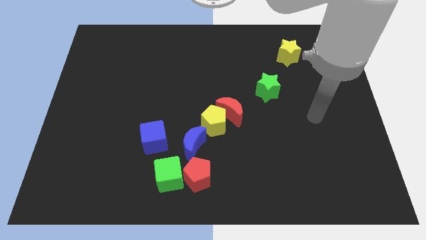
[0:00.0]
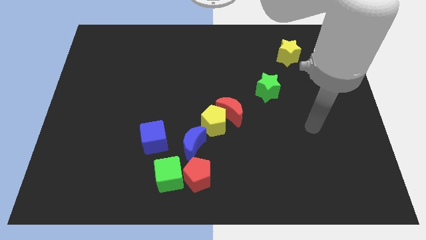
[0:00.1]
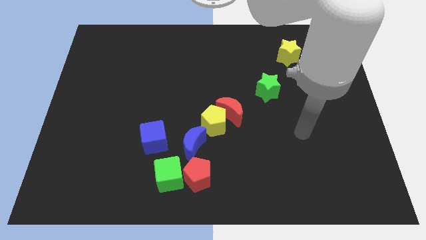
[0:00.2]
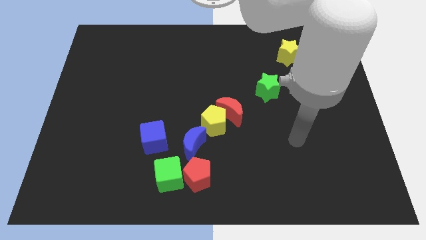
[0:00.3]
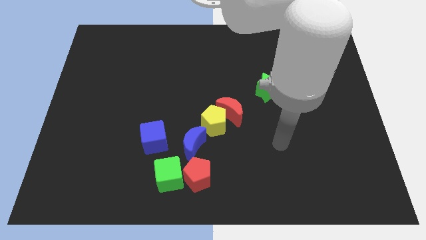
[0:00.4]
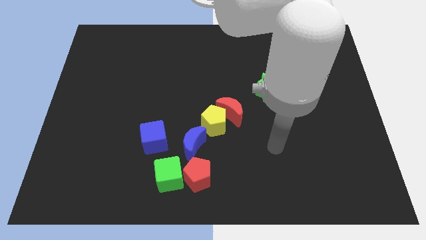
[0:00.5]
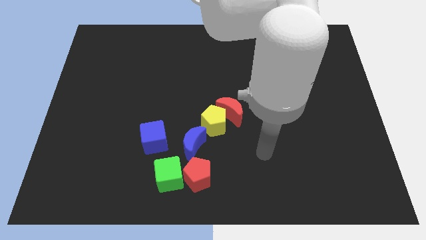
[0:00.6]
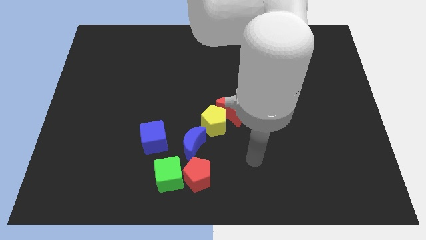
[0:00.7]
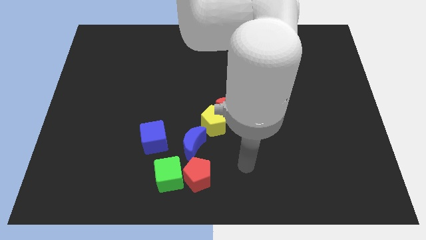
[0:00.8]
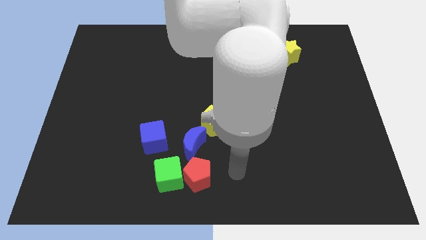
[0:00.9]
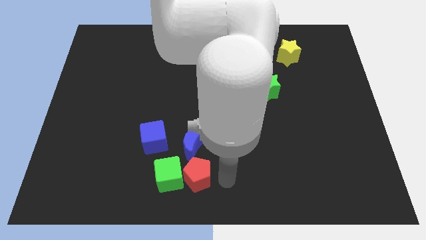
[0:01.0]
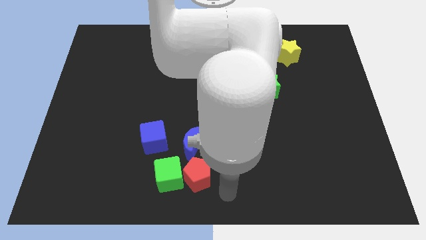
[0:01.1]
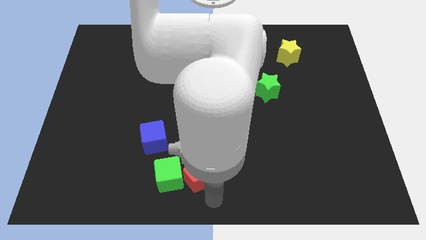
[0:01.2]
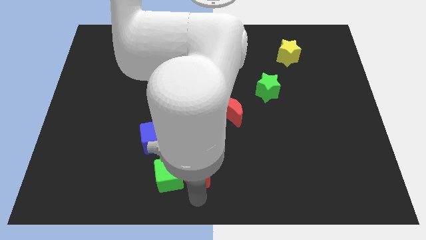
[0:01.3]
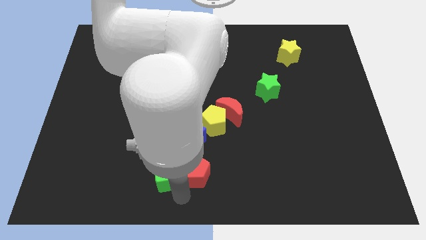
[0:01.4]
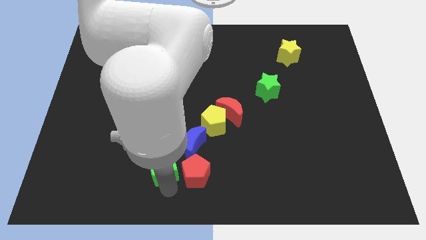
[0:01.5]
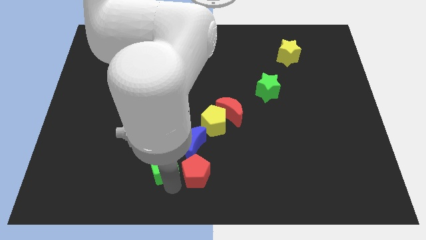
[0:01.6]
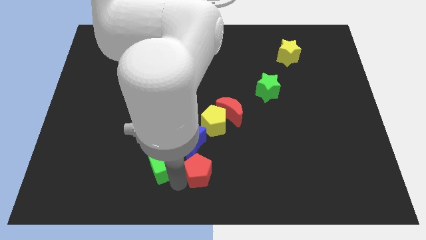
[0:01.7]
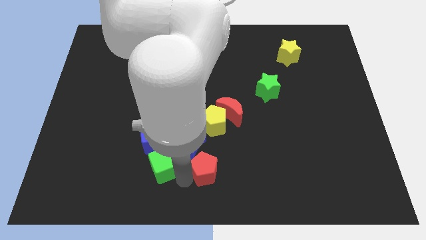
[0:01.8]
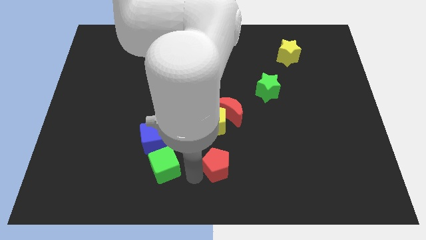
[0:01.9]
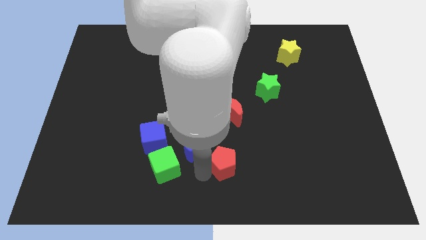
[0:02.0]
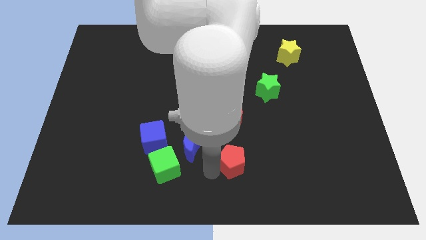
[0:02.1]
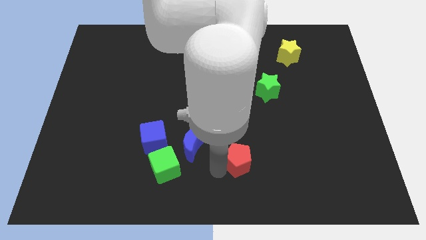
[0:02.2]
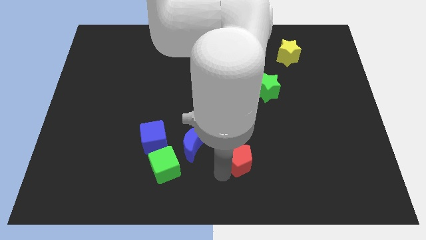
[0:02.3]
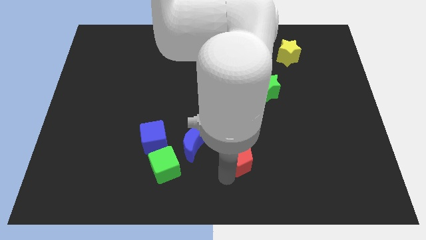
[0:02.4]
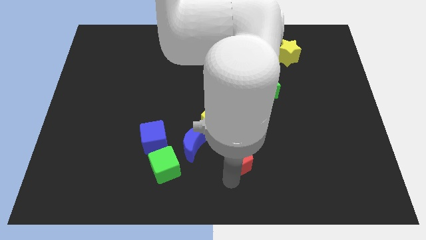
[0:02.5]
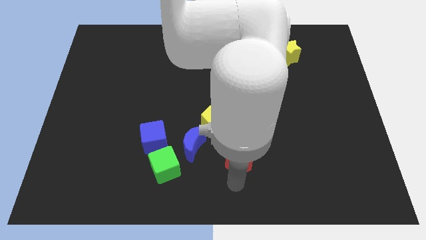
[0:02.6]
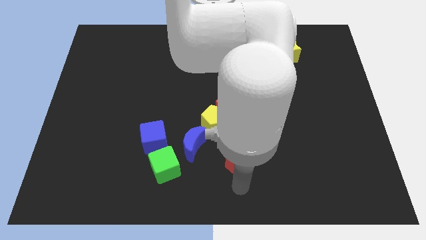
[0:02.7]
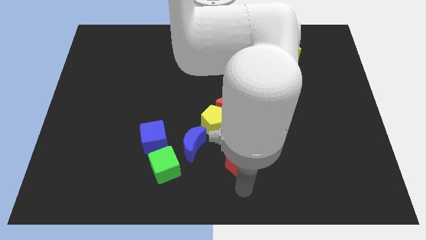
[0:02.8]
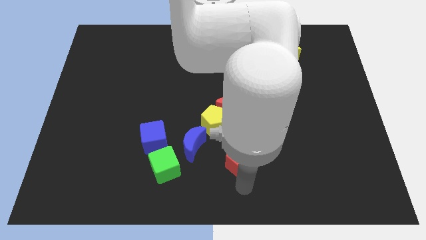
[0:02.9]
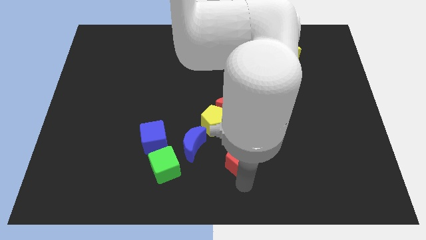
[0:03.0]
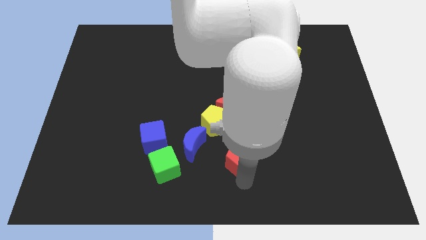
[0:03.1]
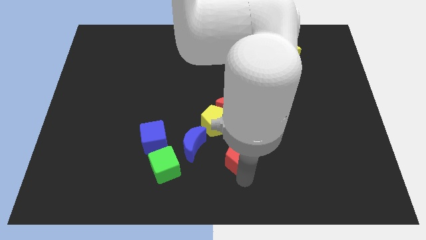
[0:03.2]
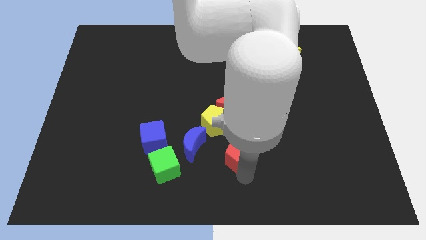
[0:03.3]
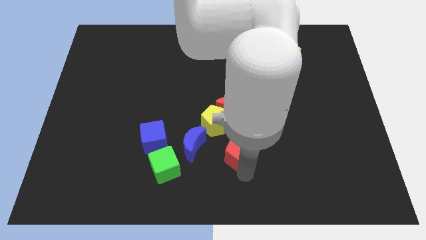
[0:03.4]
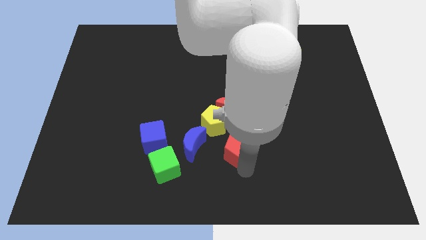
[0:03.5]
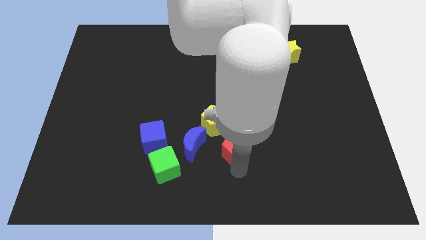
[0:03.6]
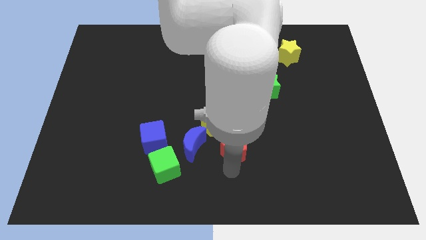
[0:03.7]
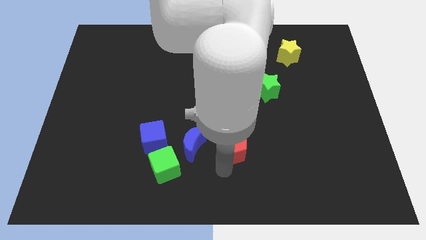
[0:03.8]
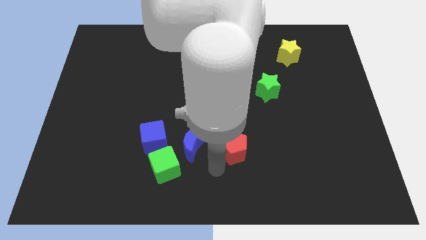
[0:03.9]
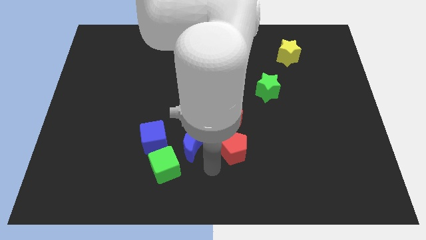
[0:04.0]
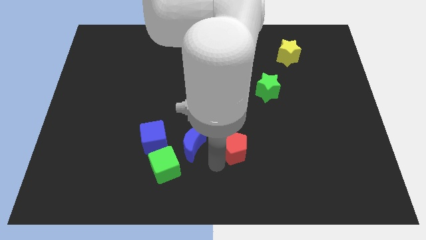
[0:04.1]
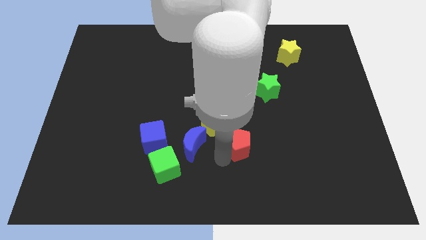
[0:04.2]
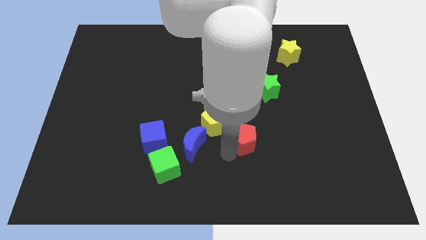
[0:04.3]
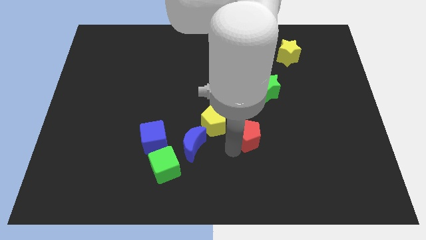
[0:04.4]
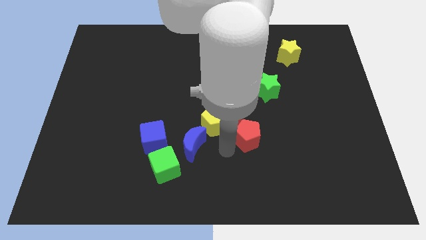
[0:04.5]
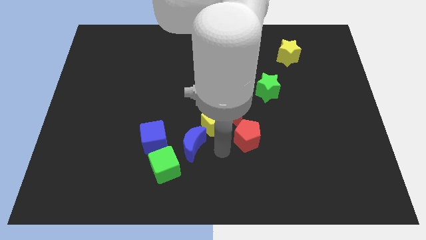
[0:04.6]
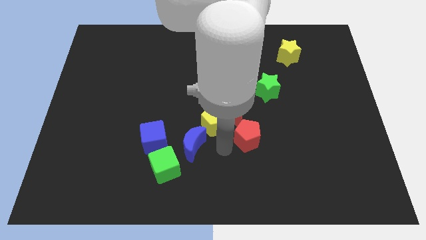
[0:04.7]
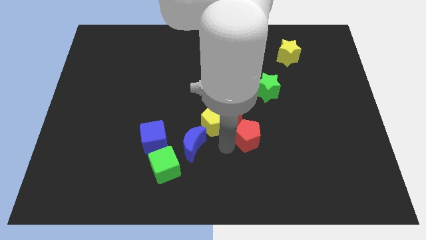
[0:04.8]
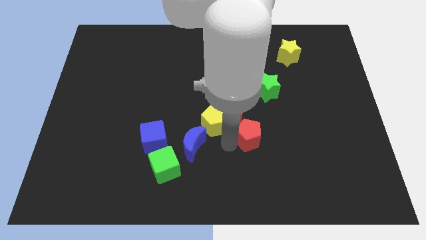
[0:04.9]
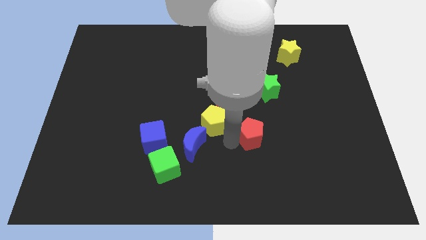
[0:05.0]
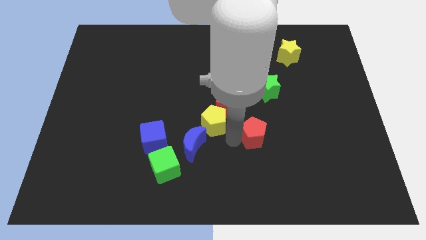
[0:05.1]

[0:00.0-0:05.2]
push the red pentagon to the bottom side of the green star

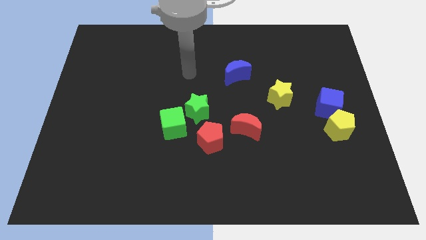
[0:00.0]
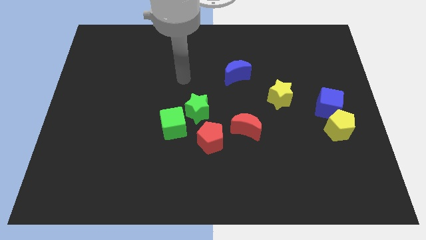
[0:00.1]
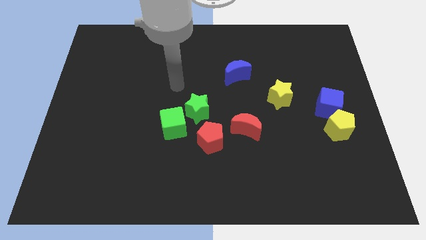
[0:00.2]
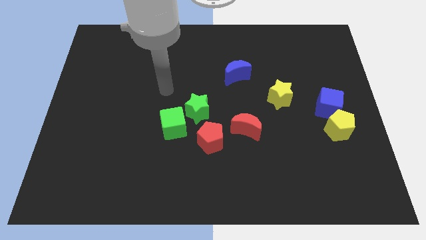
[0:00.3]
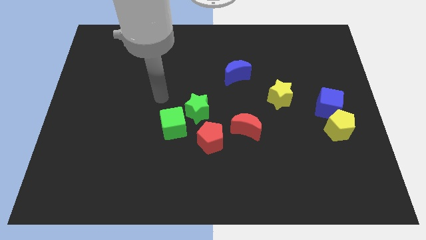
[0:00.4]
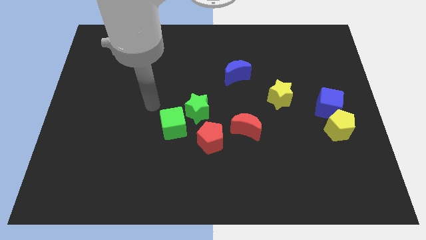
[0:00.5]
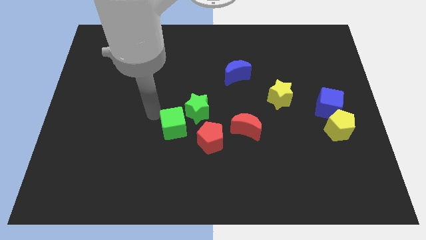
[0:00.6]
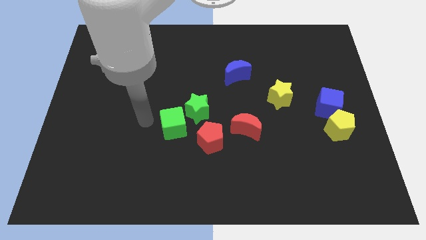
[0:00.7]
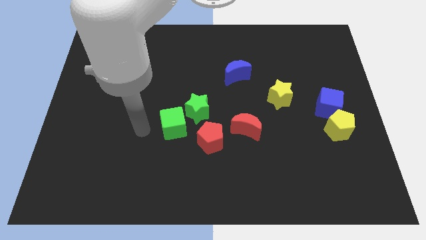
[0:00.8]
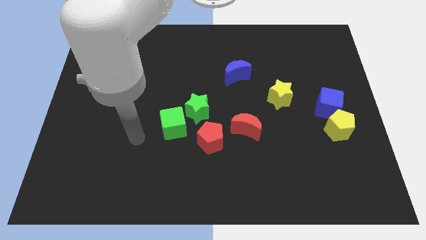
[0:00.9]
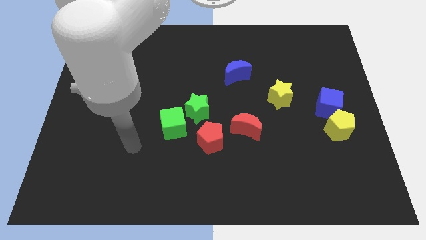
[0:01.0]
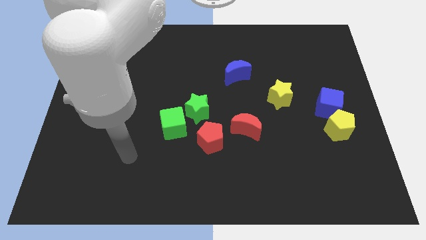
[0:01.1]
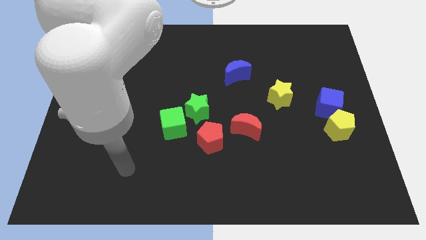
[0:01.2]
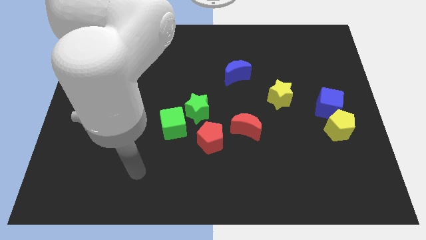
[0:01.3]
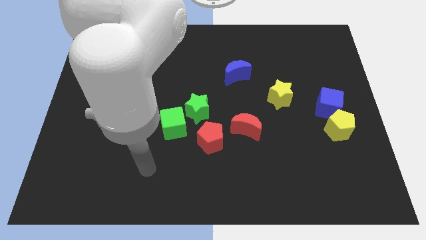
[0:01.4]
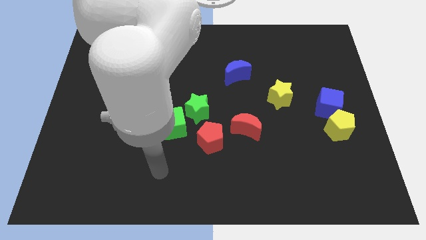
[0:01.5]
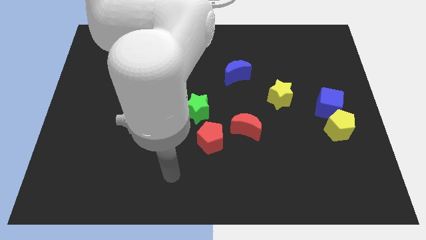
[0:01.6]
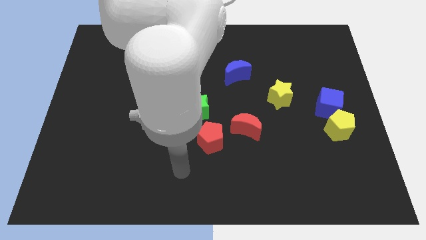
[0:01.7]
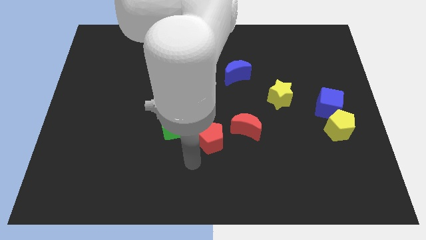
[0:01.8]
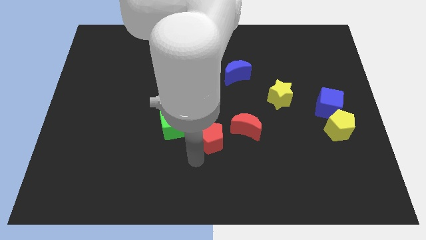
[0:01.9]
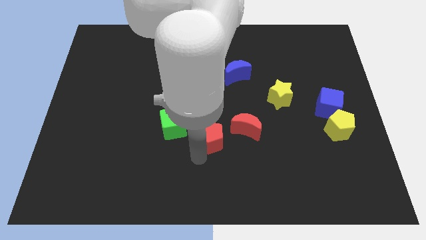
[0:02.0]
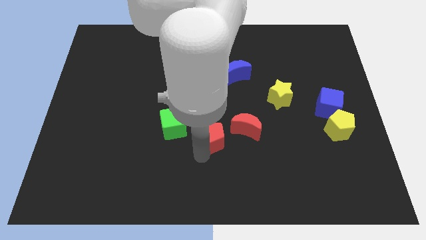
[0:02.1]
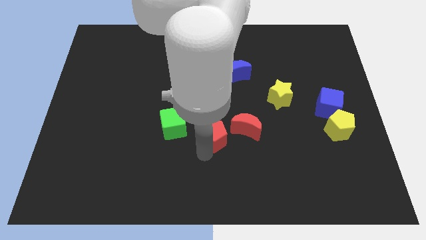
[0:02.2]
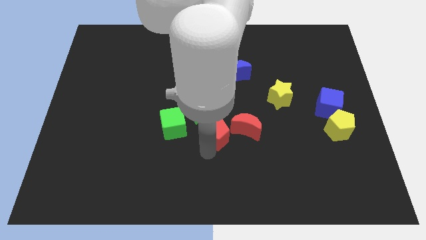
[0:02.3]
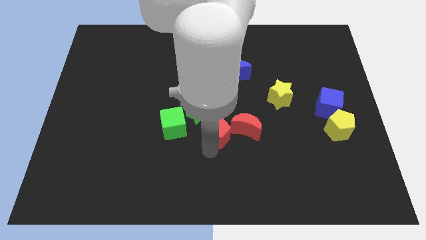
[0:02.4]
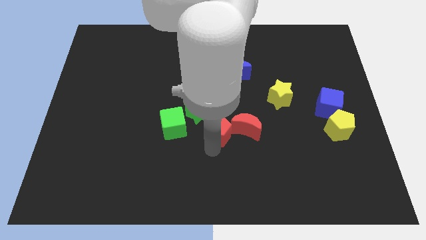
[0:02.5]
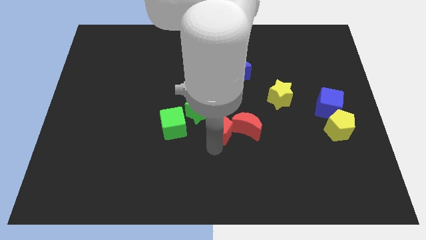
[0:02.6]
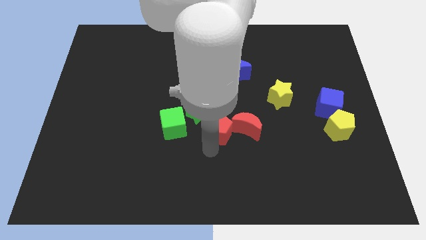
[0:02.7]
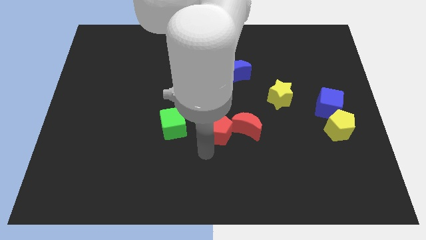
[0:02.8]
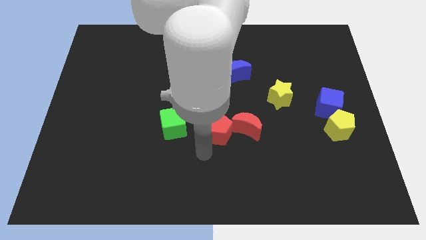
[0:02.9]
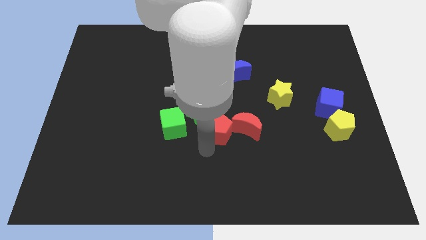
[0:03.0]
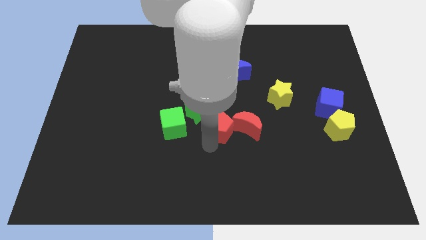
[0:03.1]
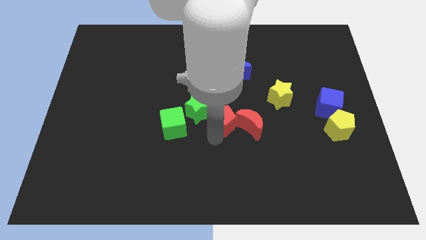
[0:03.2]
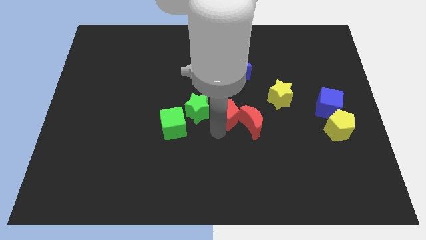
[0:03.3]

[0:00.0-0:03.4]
slide the red pentagon below the blue moon
